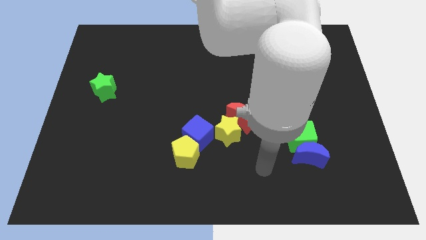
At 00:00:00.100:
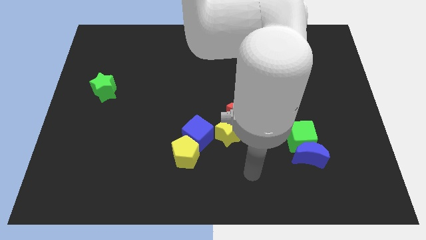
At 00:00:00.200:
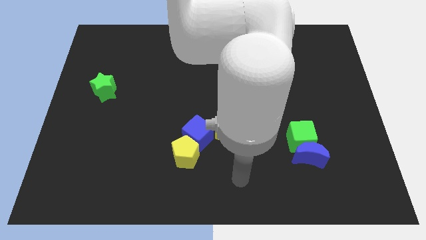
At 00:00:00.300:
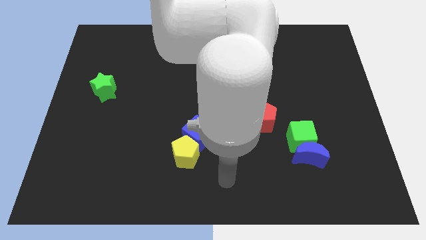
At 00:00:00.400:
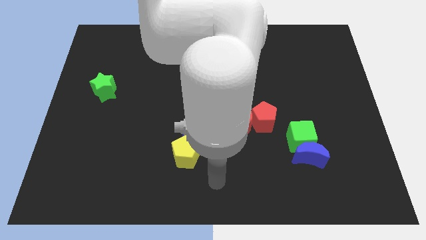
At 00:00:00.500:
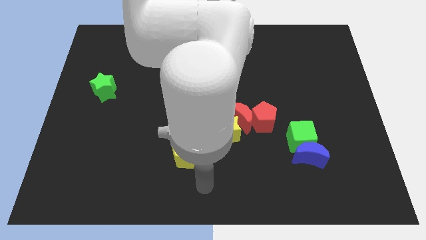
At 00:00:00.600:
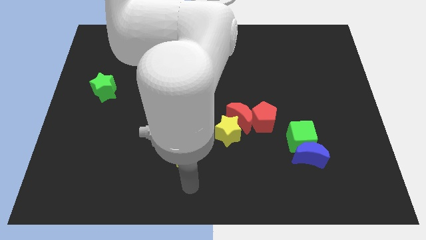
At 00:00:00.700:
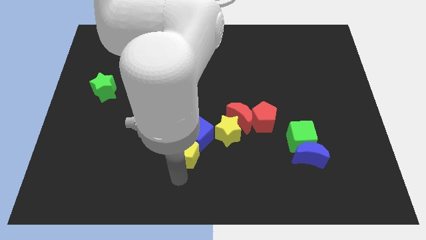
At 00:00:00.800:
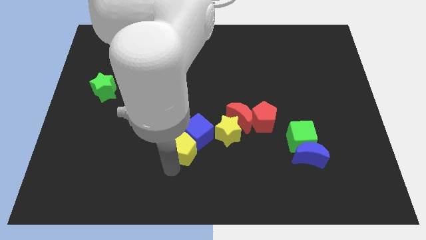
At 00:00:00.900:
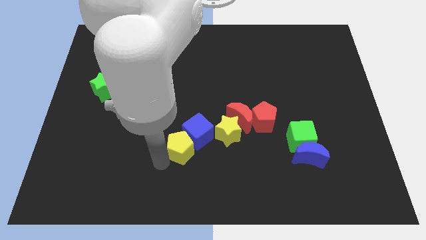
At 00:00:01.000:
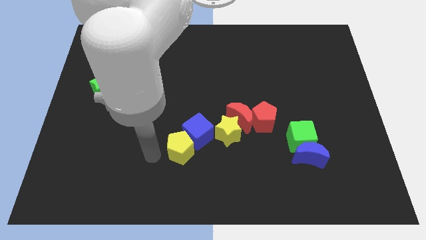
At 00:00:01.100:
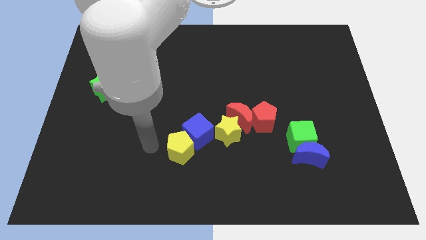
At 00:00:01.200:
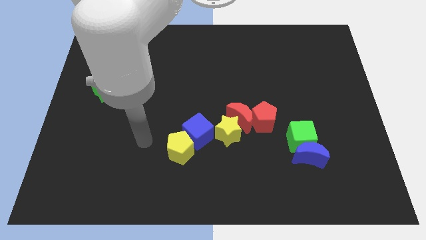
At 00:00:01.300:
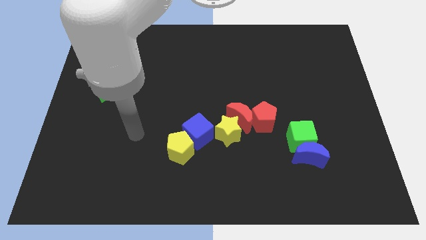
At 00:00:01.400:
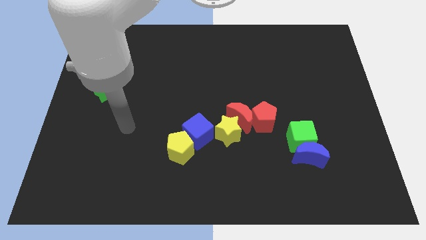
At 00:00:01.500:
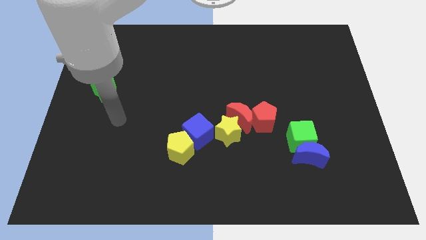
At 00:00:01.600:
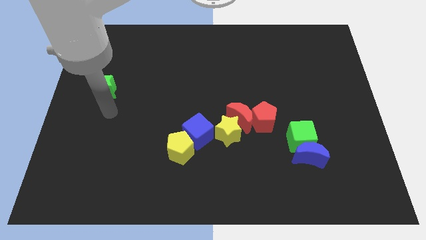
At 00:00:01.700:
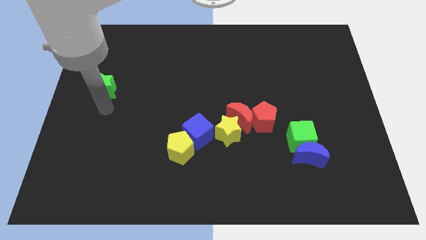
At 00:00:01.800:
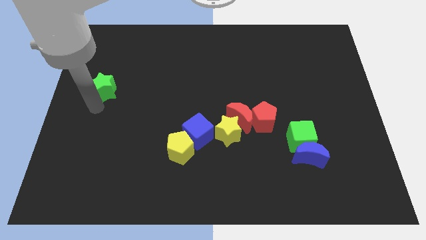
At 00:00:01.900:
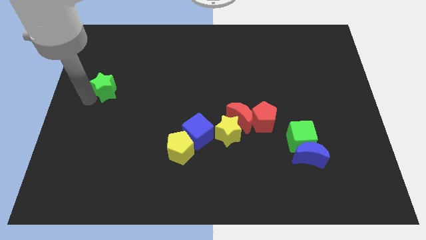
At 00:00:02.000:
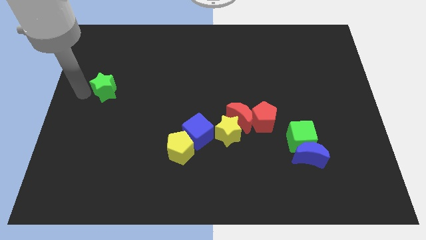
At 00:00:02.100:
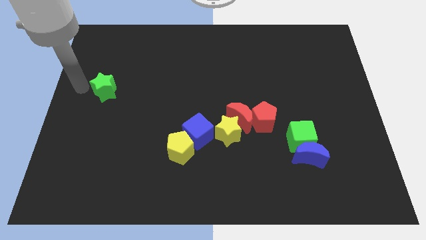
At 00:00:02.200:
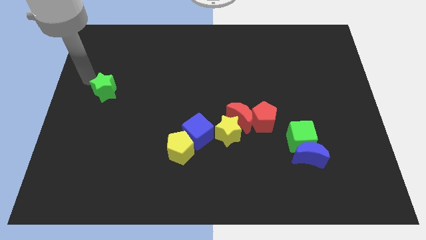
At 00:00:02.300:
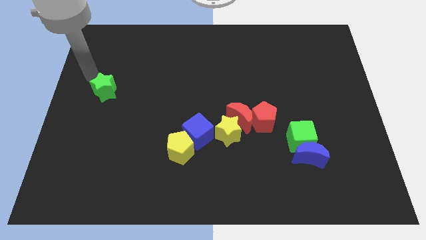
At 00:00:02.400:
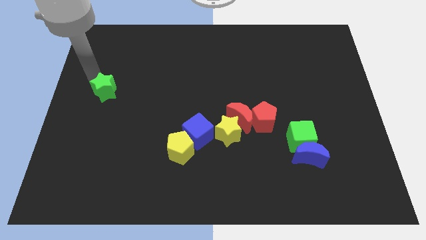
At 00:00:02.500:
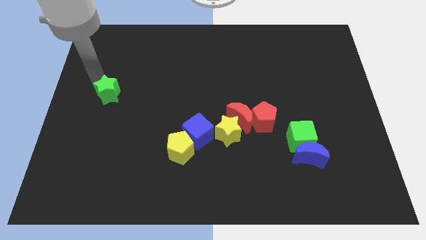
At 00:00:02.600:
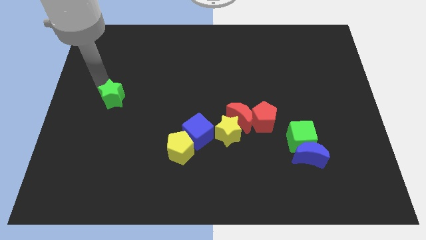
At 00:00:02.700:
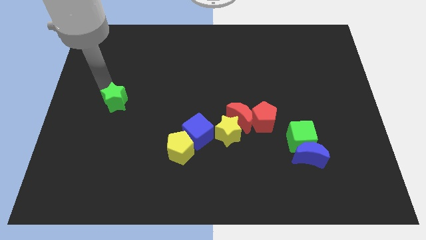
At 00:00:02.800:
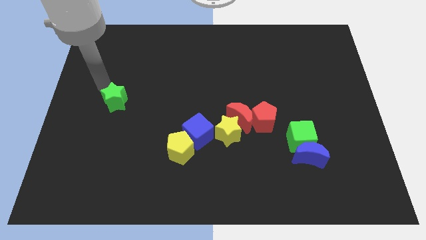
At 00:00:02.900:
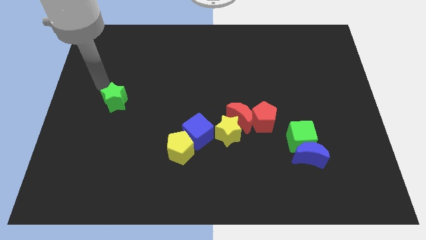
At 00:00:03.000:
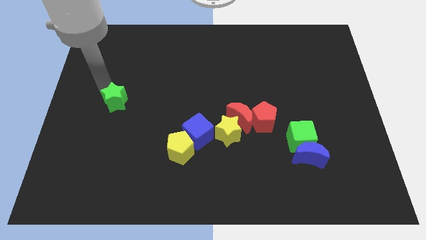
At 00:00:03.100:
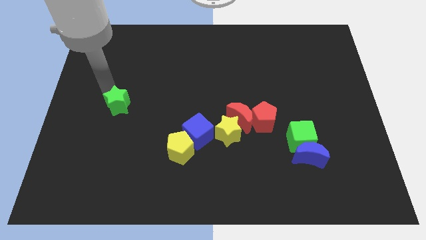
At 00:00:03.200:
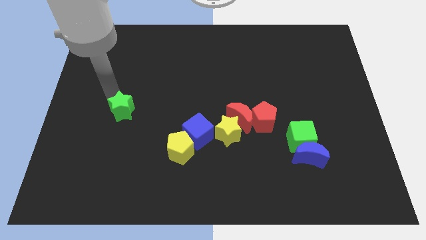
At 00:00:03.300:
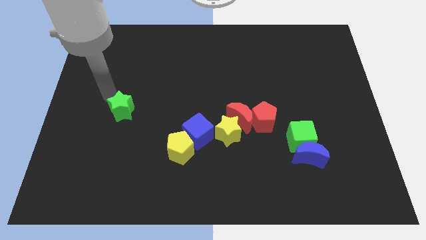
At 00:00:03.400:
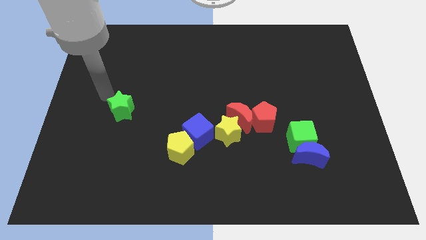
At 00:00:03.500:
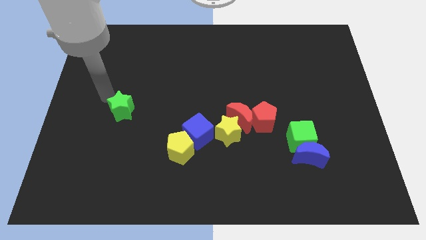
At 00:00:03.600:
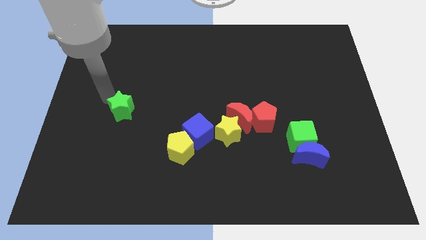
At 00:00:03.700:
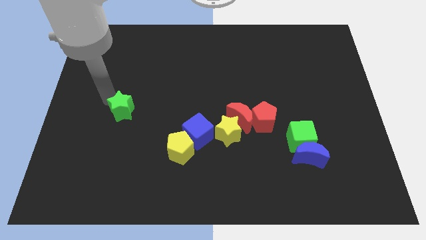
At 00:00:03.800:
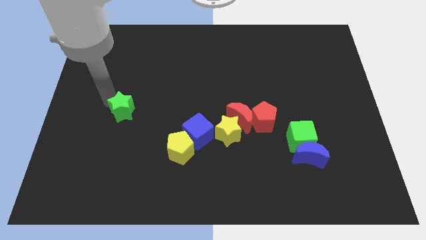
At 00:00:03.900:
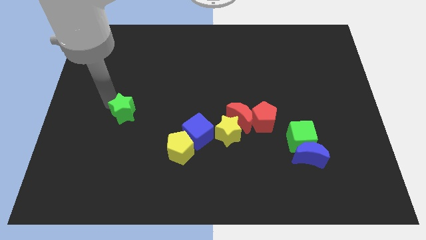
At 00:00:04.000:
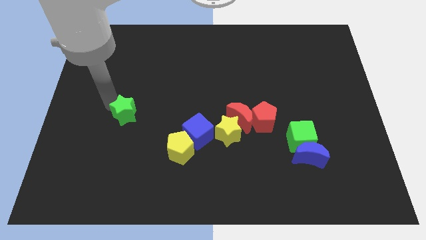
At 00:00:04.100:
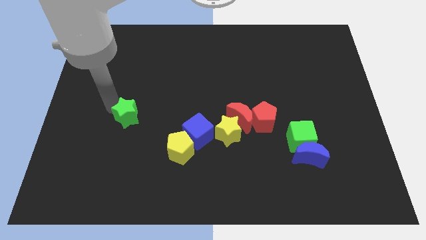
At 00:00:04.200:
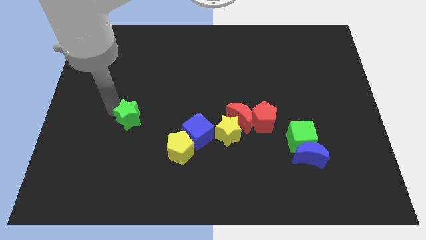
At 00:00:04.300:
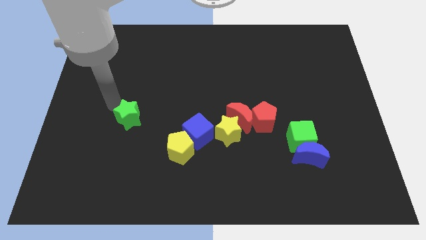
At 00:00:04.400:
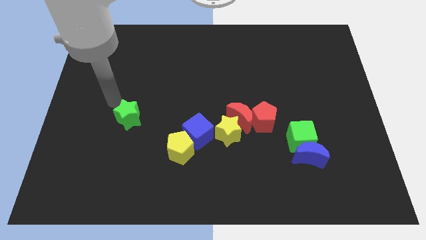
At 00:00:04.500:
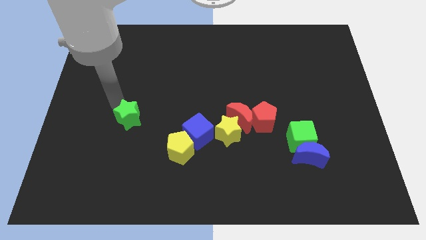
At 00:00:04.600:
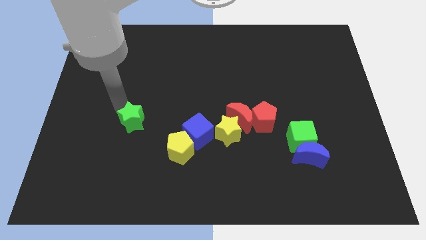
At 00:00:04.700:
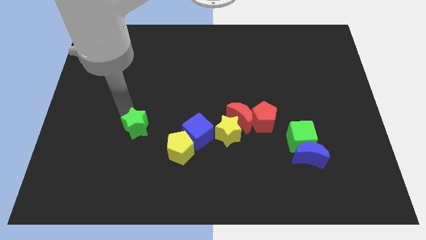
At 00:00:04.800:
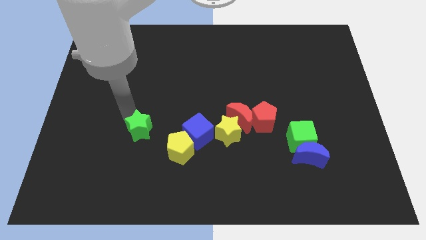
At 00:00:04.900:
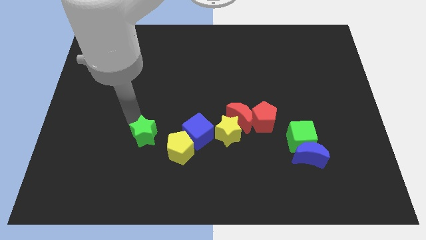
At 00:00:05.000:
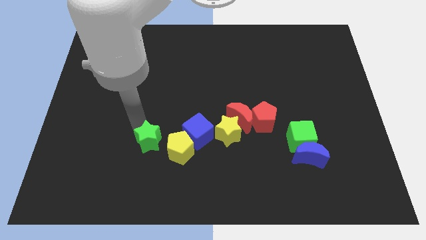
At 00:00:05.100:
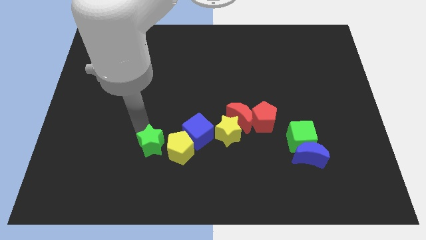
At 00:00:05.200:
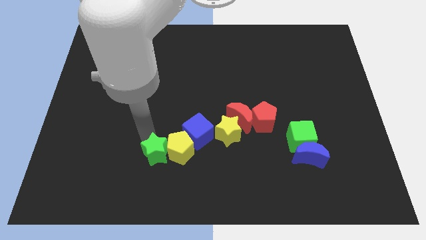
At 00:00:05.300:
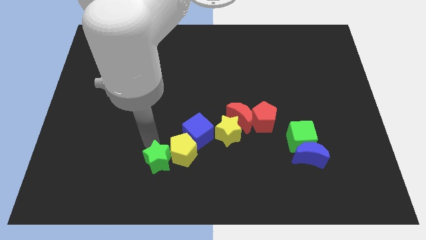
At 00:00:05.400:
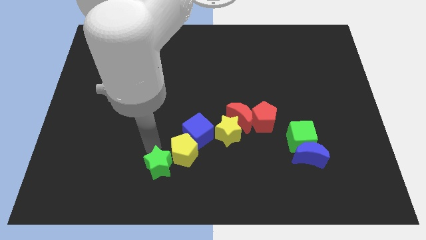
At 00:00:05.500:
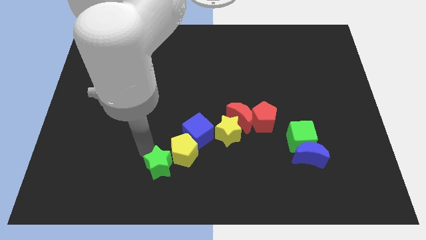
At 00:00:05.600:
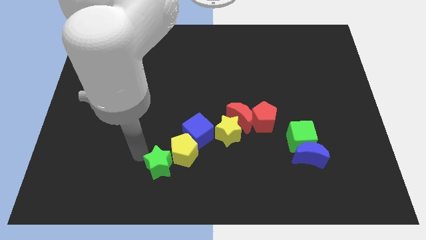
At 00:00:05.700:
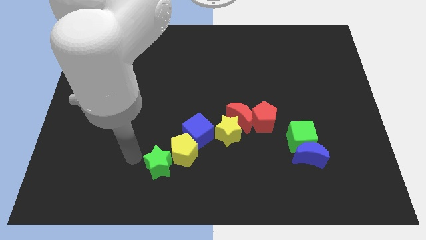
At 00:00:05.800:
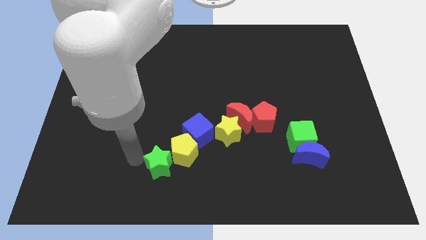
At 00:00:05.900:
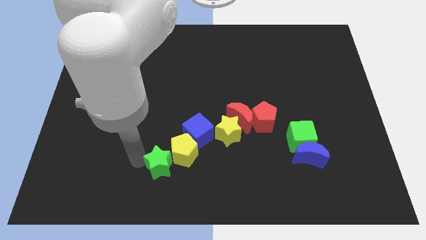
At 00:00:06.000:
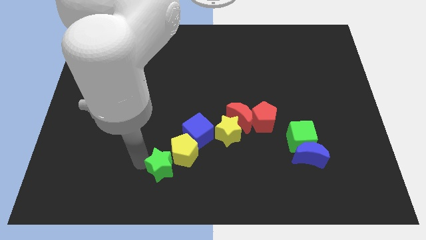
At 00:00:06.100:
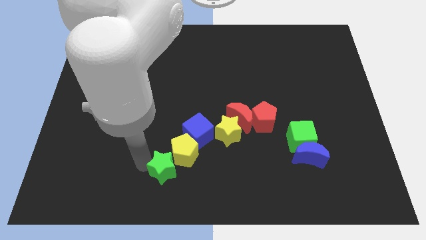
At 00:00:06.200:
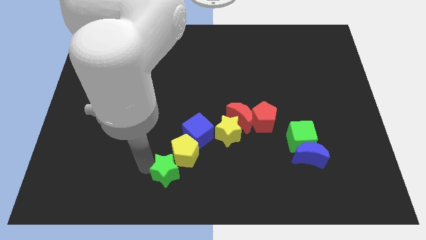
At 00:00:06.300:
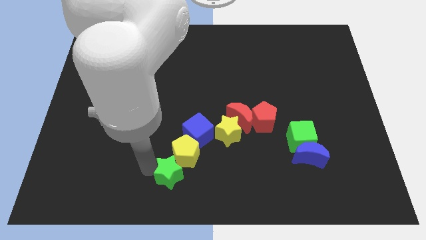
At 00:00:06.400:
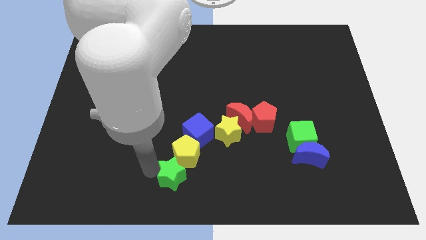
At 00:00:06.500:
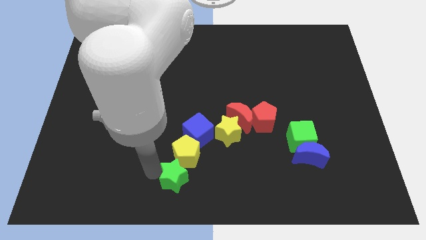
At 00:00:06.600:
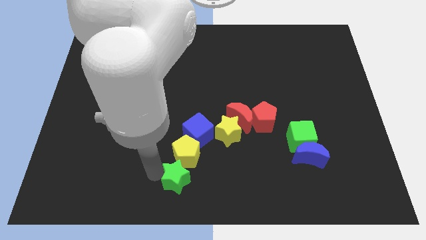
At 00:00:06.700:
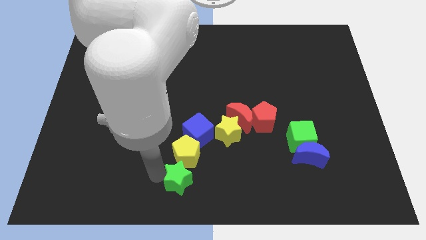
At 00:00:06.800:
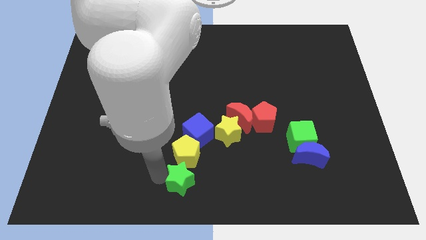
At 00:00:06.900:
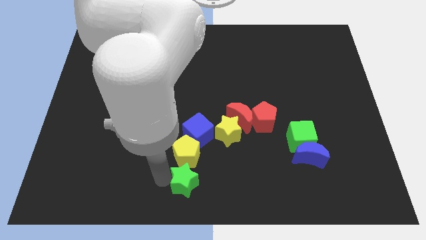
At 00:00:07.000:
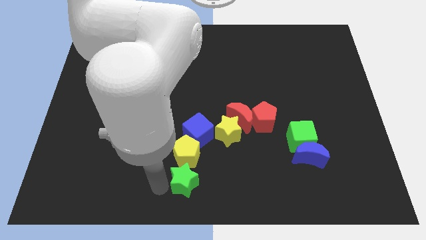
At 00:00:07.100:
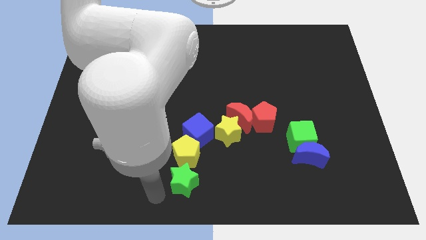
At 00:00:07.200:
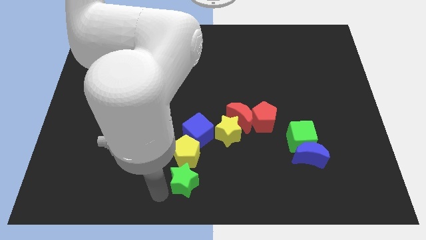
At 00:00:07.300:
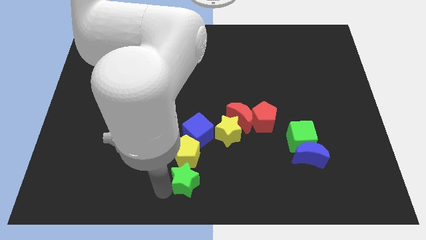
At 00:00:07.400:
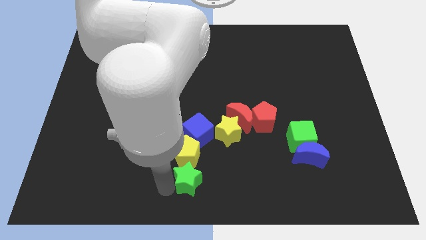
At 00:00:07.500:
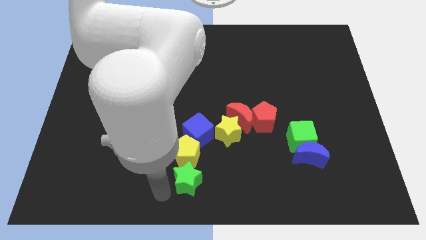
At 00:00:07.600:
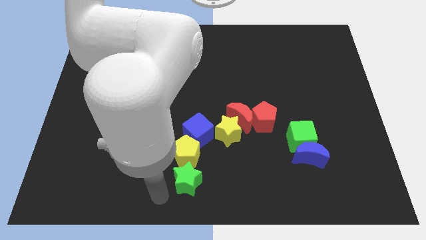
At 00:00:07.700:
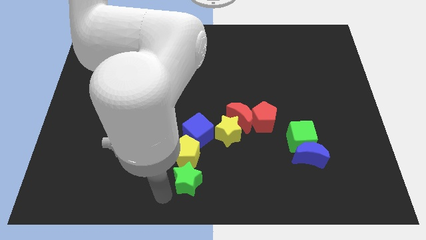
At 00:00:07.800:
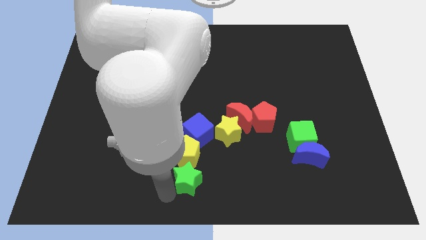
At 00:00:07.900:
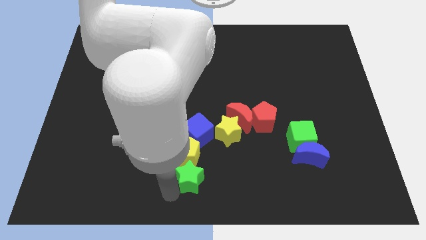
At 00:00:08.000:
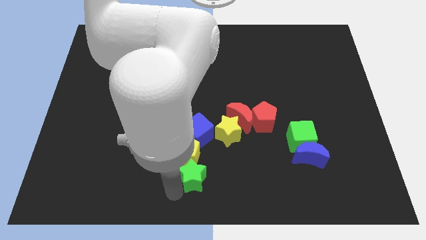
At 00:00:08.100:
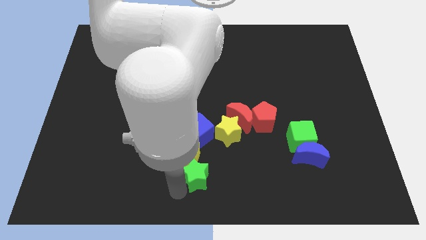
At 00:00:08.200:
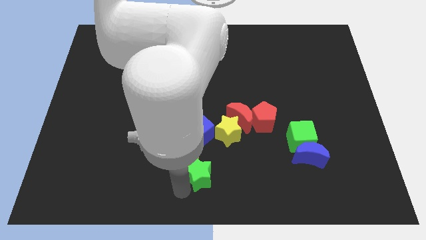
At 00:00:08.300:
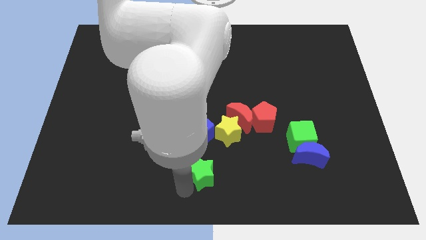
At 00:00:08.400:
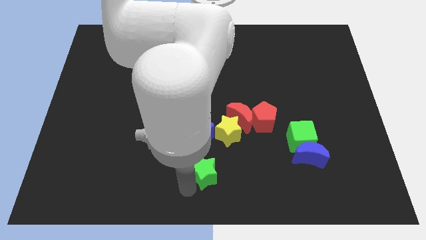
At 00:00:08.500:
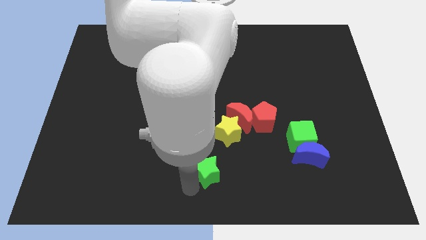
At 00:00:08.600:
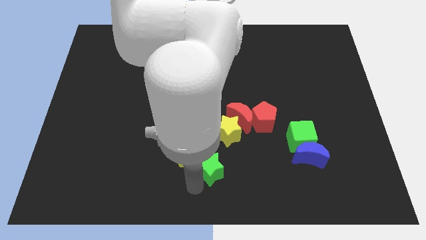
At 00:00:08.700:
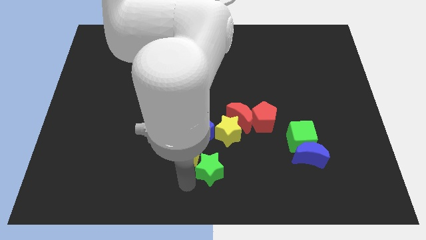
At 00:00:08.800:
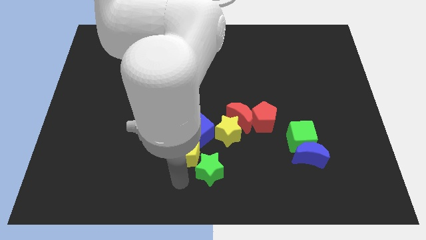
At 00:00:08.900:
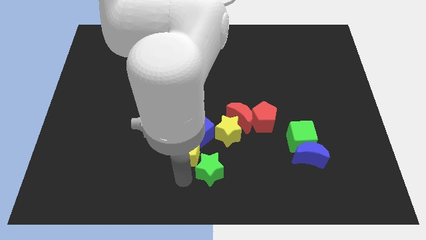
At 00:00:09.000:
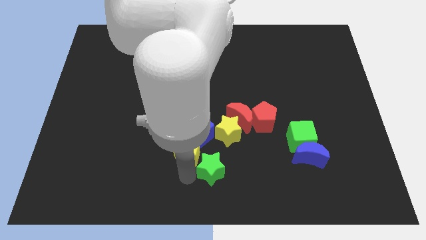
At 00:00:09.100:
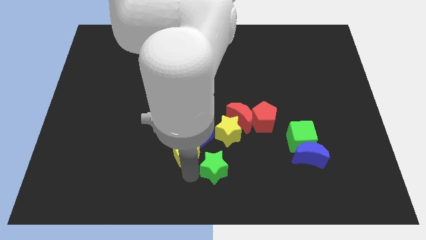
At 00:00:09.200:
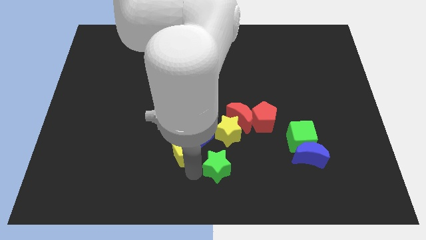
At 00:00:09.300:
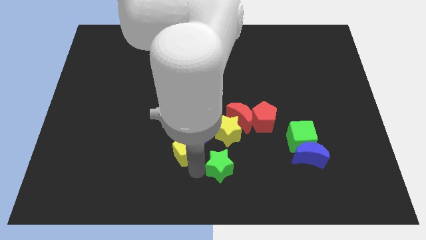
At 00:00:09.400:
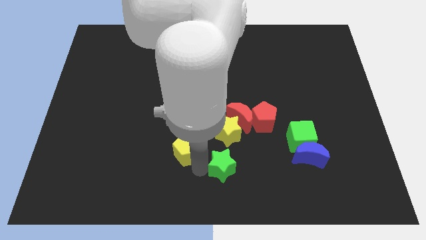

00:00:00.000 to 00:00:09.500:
move the green star to the bottom of the red moon
